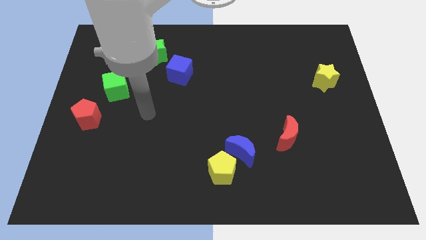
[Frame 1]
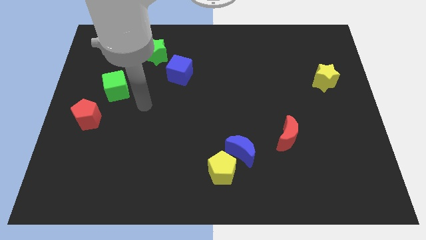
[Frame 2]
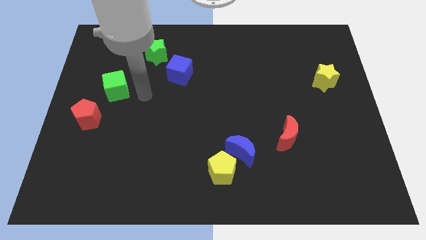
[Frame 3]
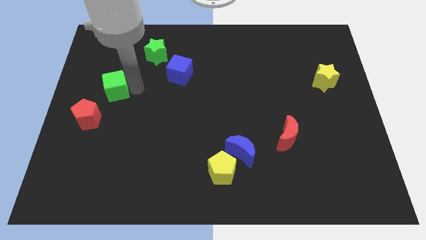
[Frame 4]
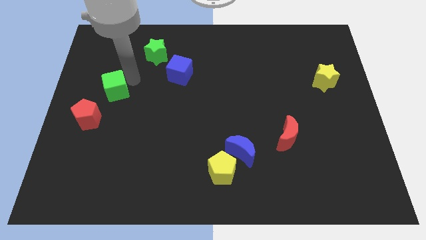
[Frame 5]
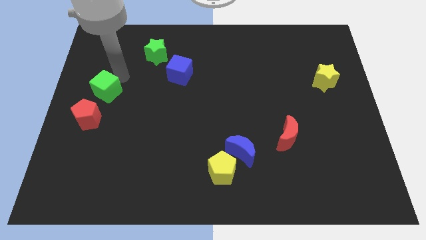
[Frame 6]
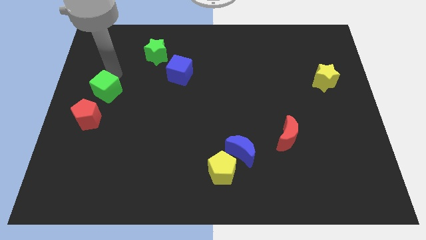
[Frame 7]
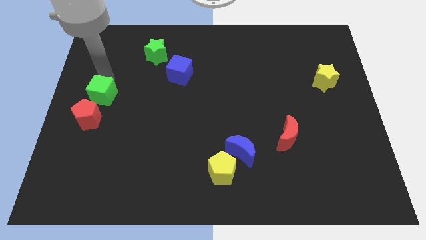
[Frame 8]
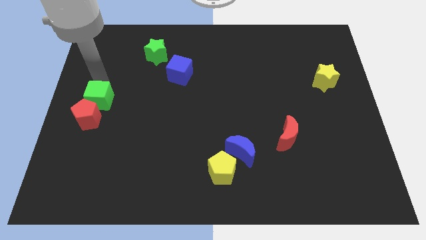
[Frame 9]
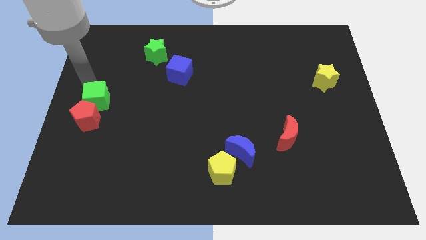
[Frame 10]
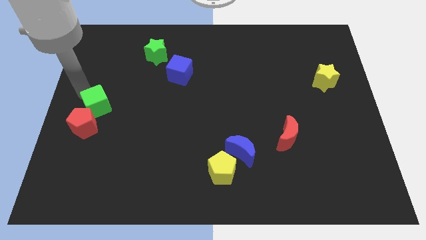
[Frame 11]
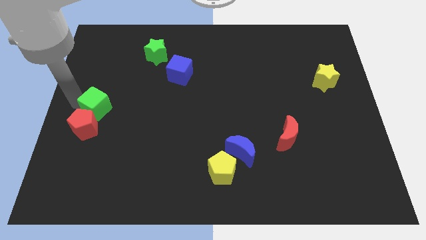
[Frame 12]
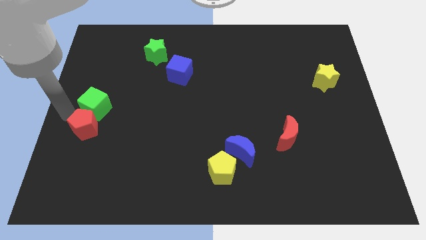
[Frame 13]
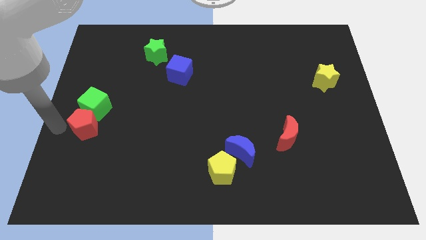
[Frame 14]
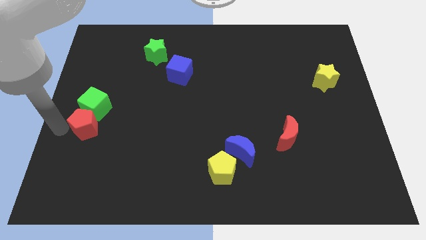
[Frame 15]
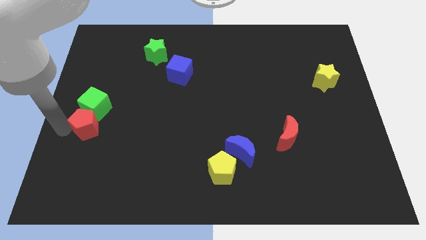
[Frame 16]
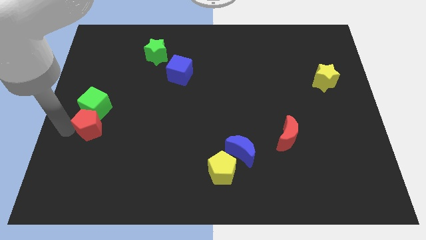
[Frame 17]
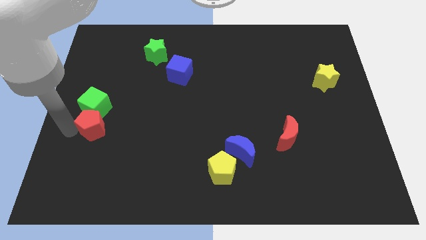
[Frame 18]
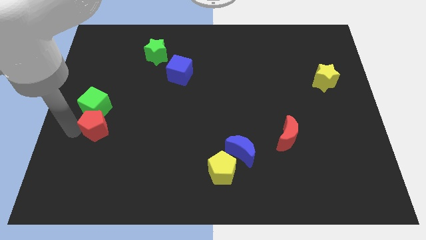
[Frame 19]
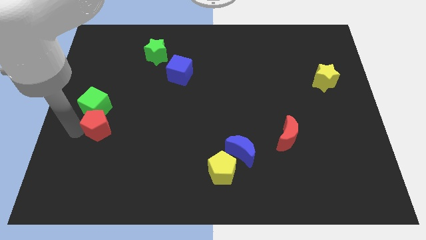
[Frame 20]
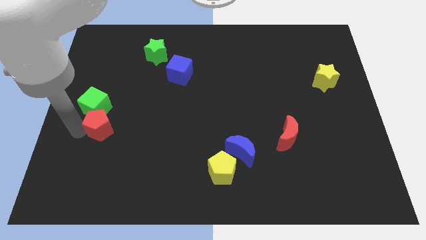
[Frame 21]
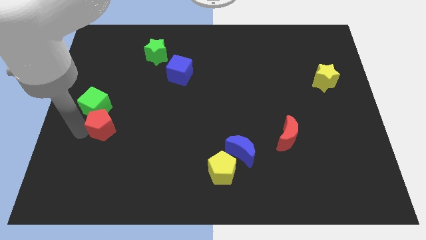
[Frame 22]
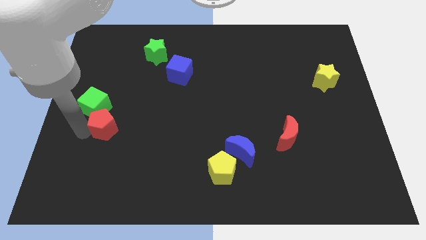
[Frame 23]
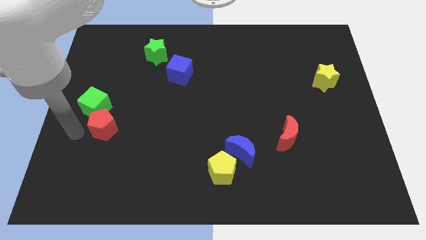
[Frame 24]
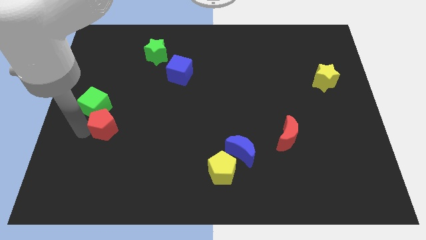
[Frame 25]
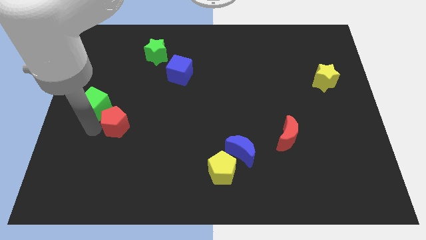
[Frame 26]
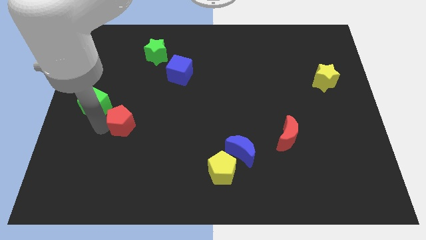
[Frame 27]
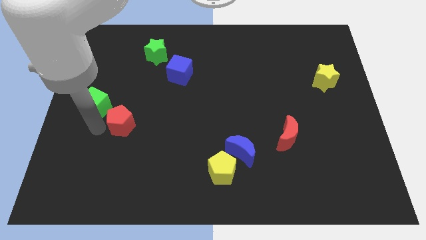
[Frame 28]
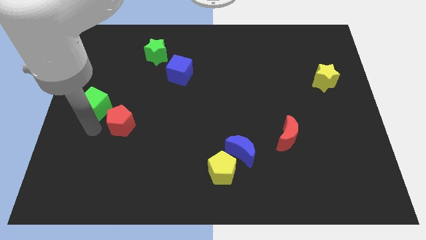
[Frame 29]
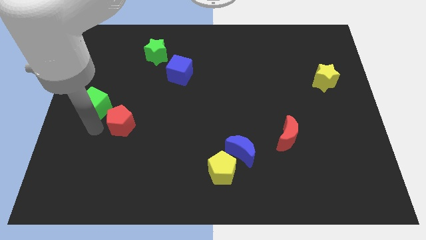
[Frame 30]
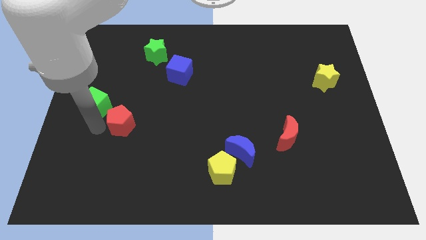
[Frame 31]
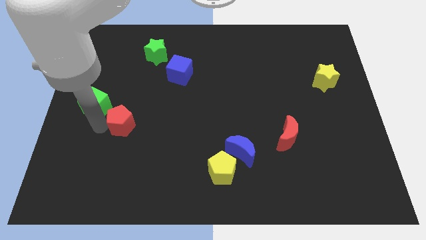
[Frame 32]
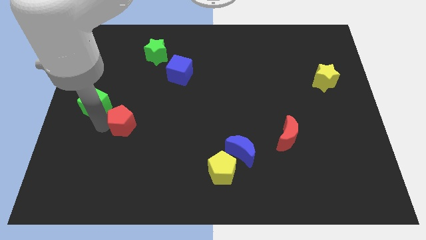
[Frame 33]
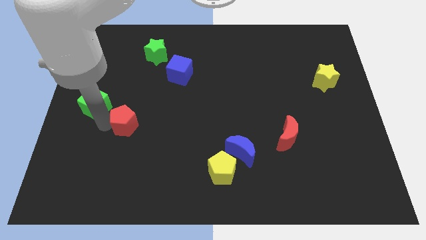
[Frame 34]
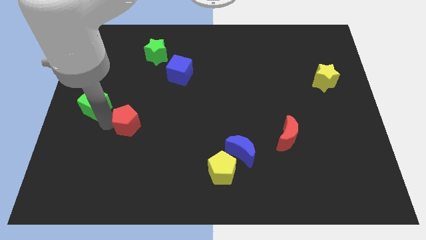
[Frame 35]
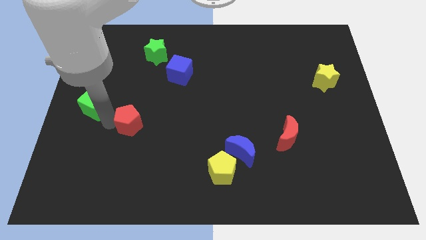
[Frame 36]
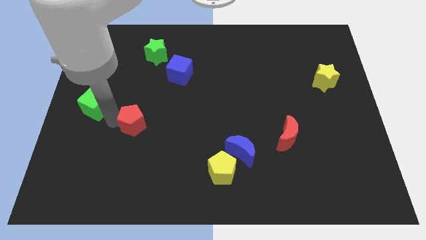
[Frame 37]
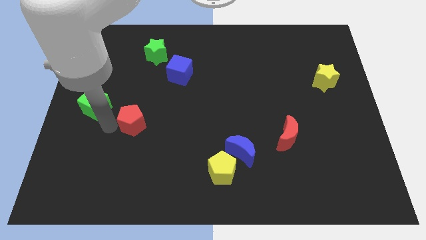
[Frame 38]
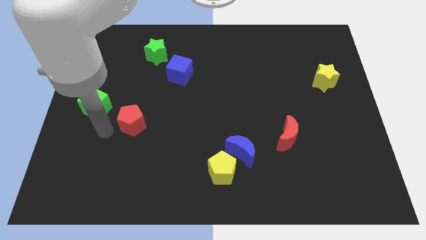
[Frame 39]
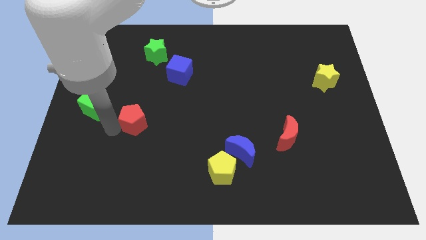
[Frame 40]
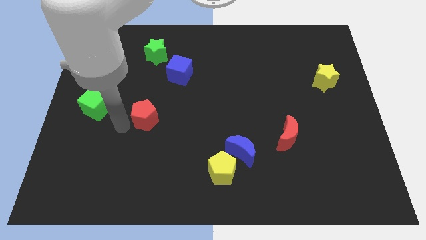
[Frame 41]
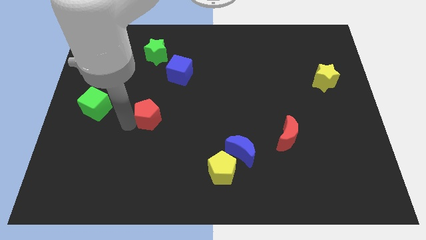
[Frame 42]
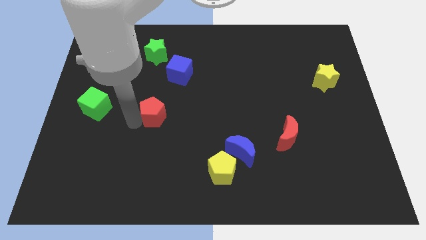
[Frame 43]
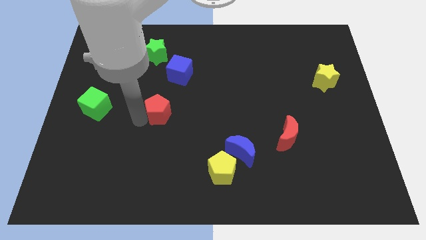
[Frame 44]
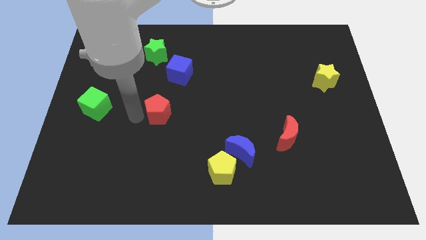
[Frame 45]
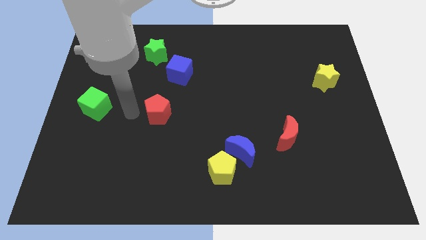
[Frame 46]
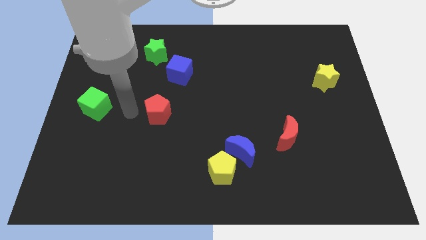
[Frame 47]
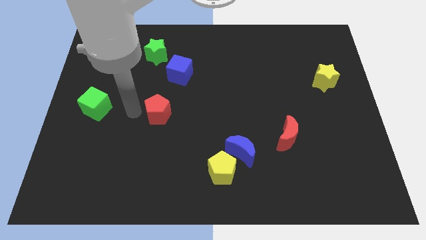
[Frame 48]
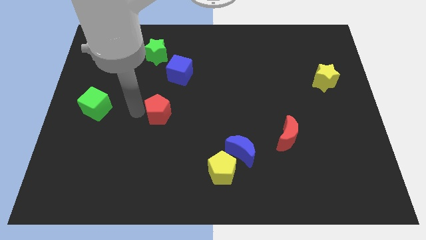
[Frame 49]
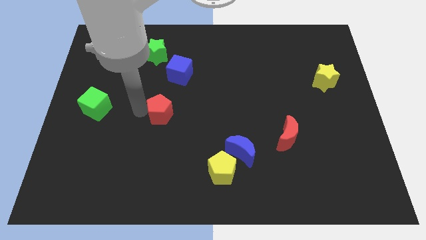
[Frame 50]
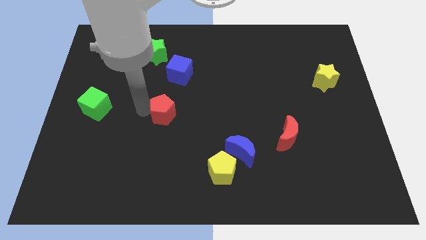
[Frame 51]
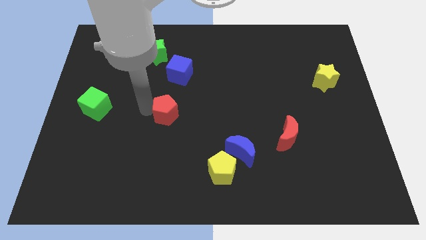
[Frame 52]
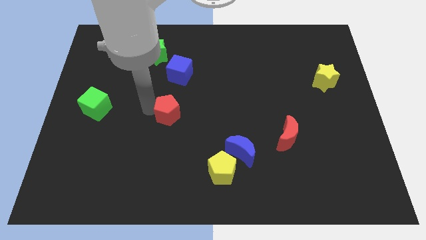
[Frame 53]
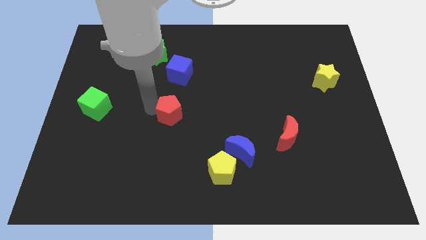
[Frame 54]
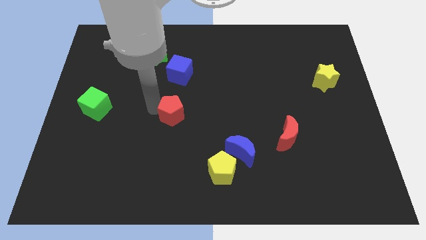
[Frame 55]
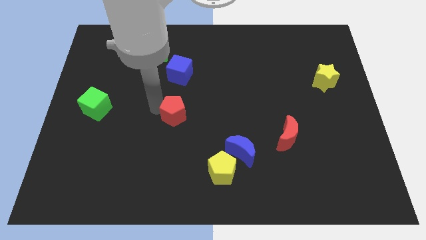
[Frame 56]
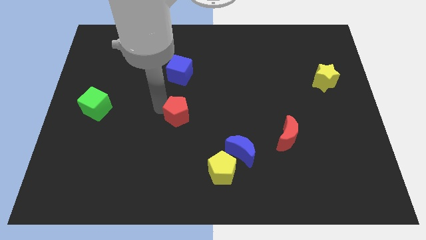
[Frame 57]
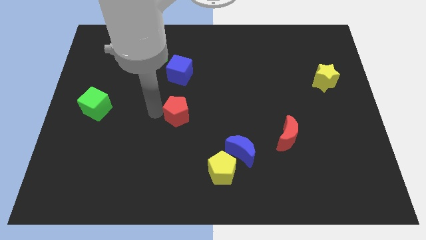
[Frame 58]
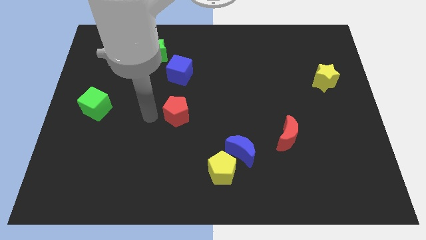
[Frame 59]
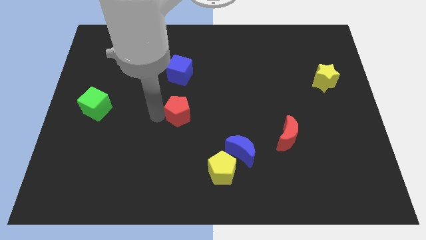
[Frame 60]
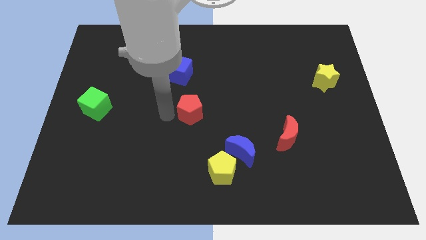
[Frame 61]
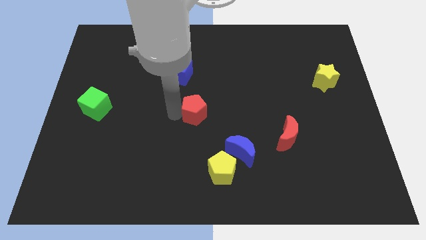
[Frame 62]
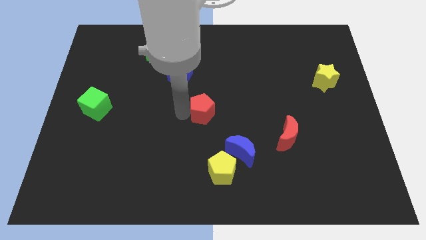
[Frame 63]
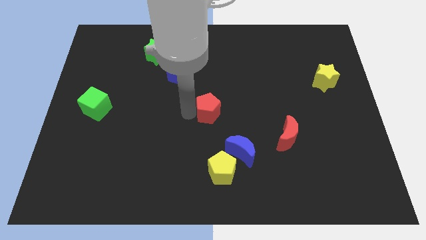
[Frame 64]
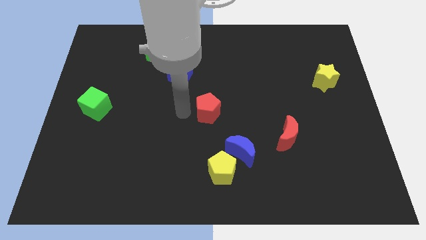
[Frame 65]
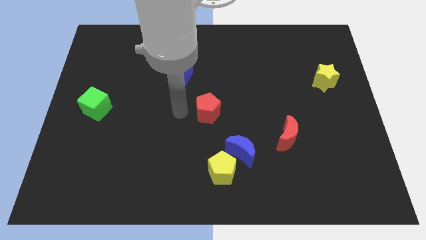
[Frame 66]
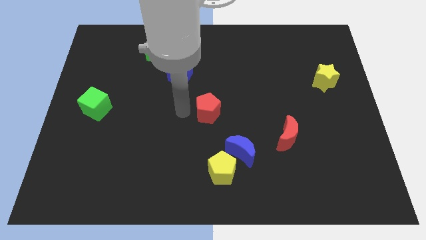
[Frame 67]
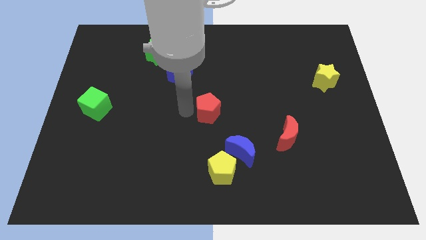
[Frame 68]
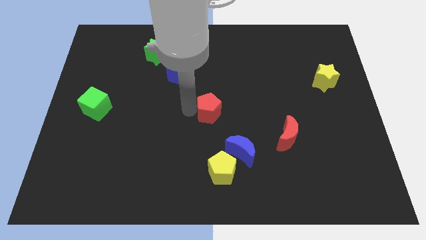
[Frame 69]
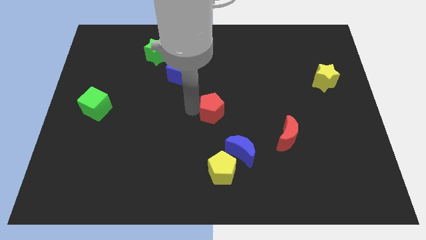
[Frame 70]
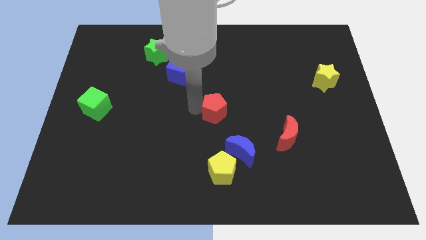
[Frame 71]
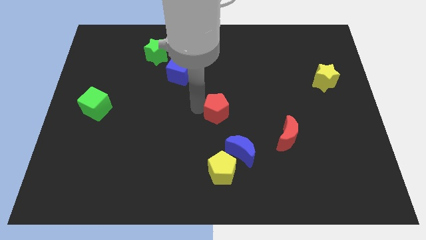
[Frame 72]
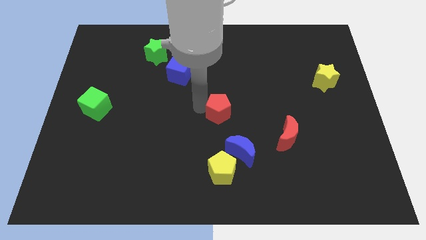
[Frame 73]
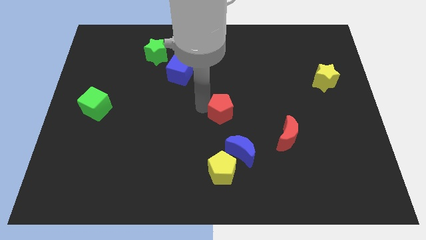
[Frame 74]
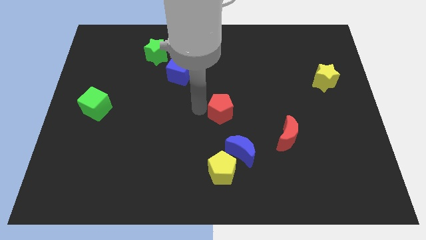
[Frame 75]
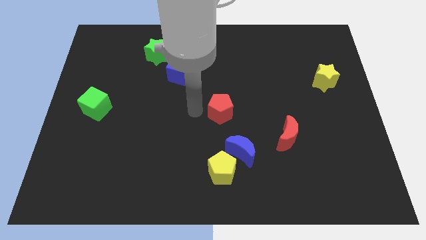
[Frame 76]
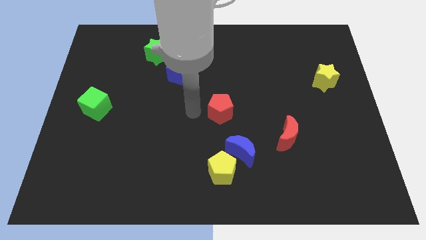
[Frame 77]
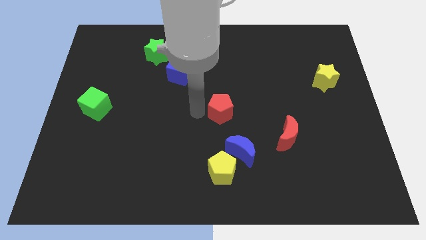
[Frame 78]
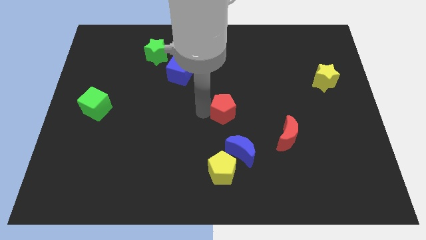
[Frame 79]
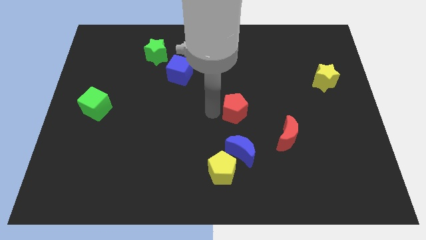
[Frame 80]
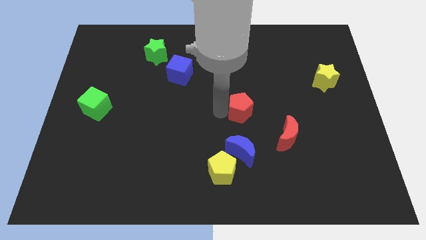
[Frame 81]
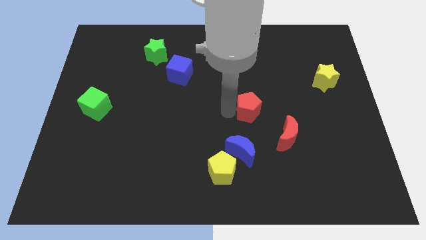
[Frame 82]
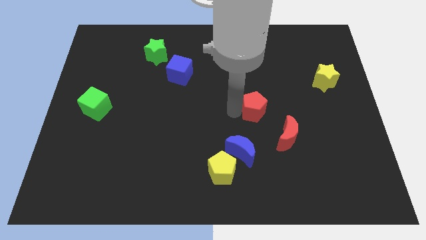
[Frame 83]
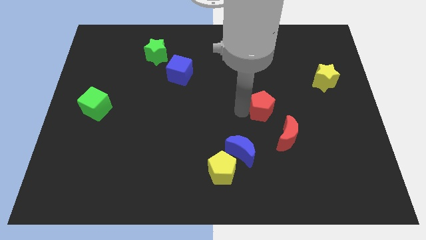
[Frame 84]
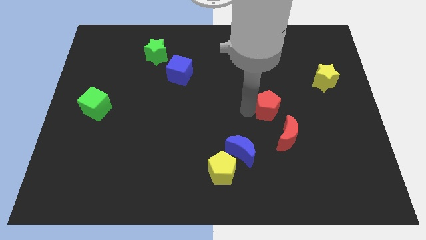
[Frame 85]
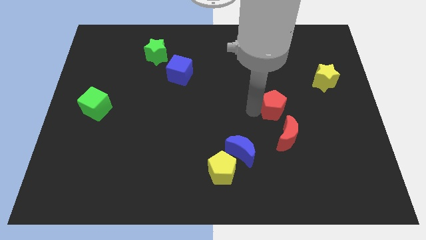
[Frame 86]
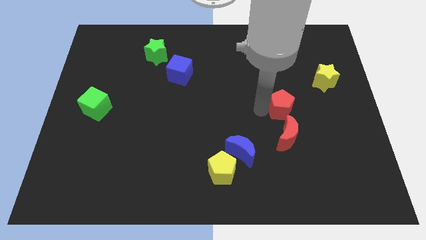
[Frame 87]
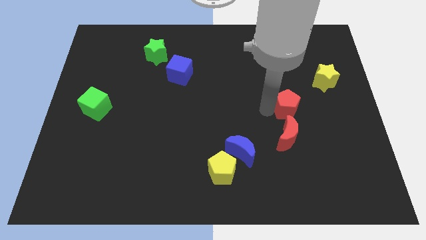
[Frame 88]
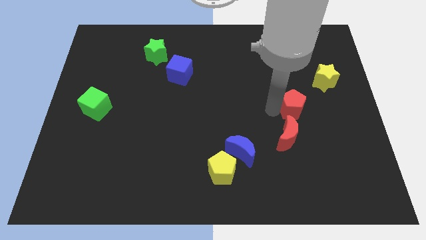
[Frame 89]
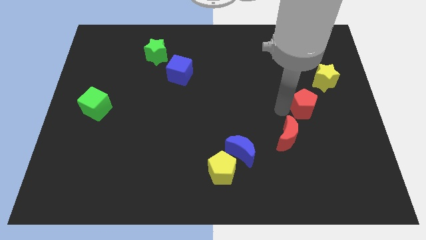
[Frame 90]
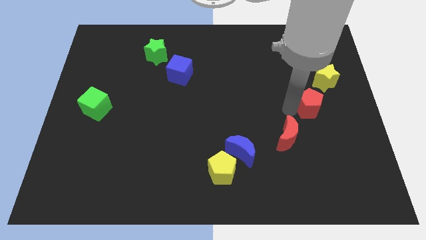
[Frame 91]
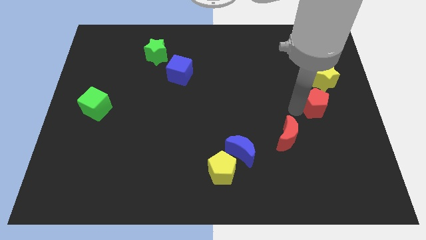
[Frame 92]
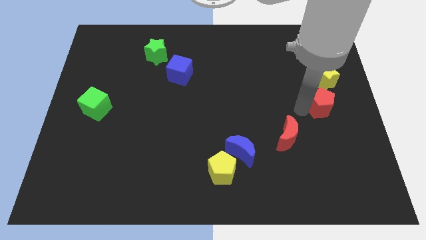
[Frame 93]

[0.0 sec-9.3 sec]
put the red pentagon to the right side
